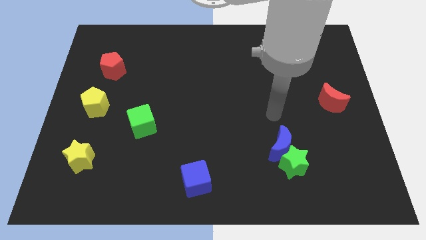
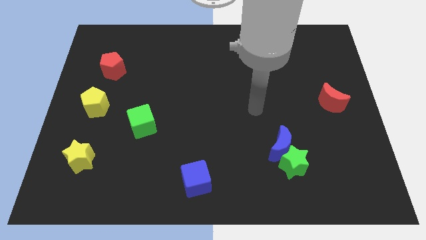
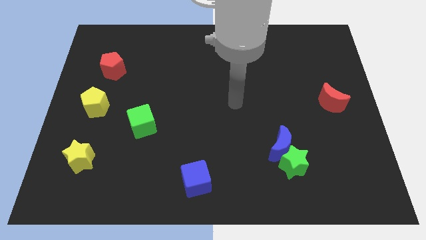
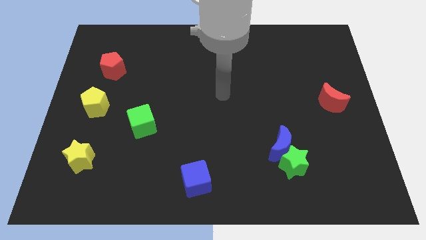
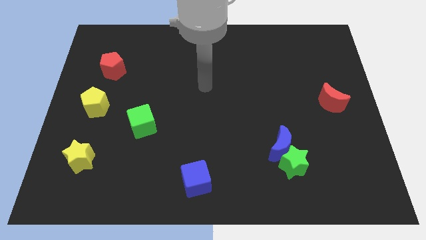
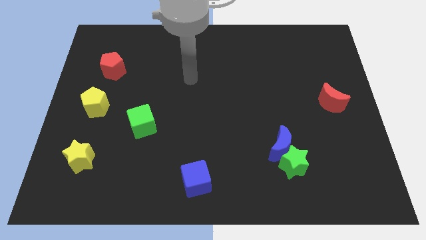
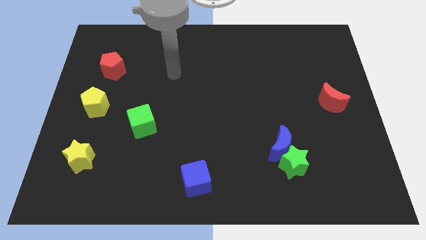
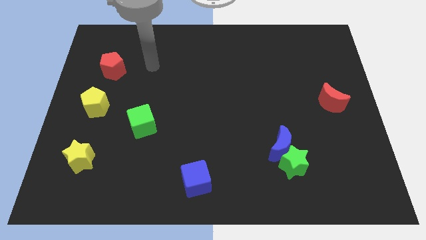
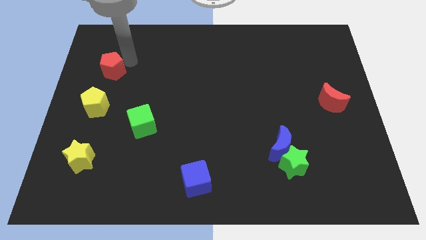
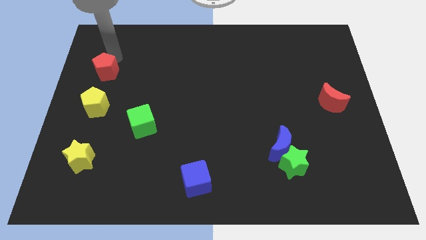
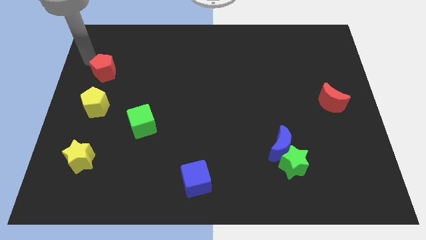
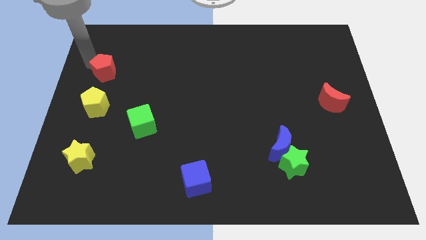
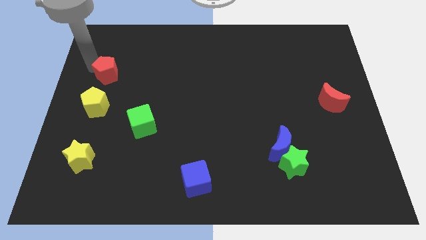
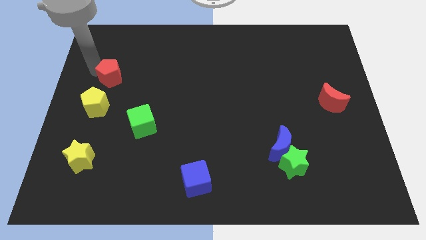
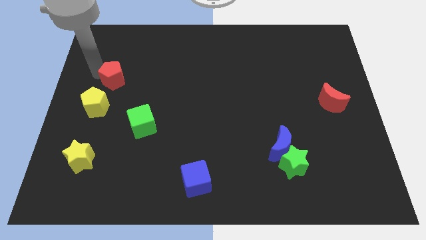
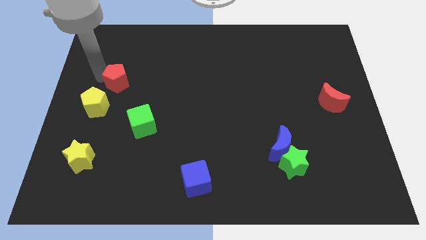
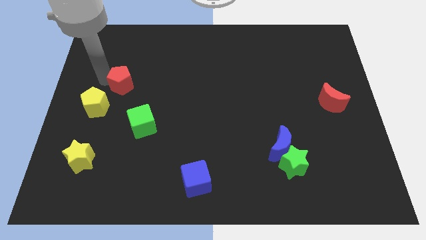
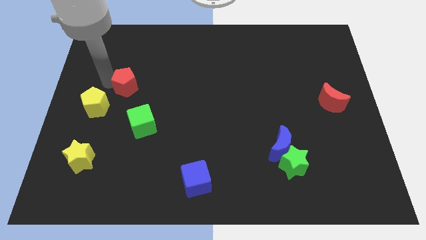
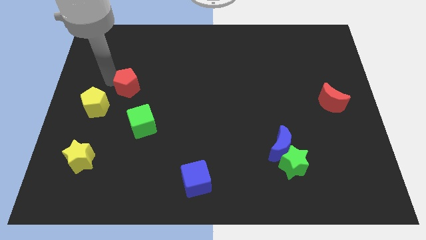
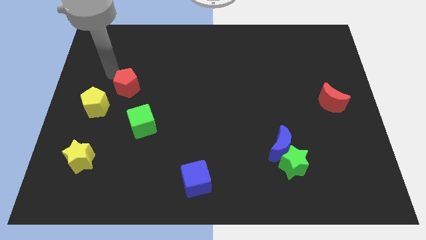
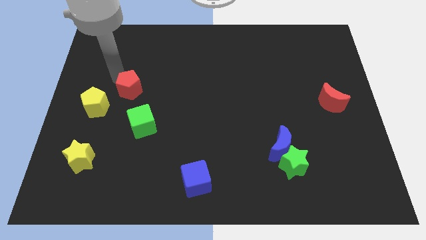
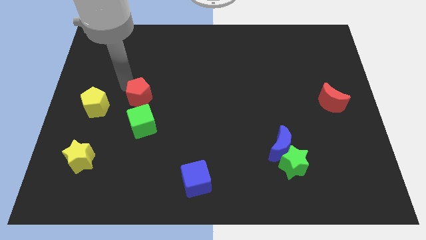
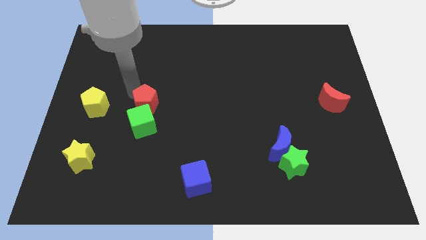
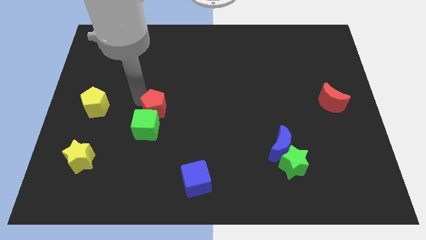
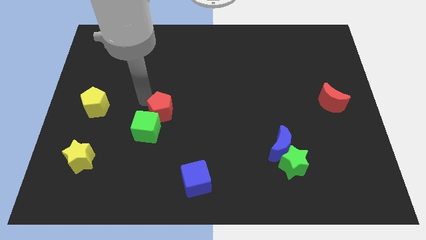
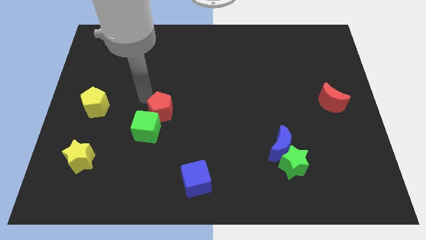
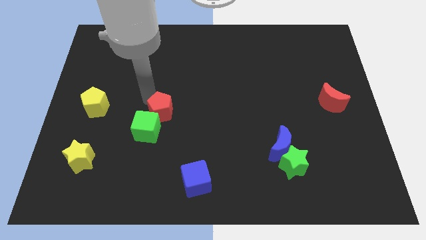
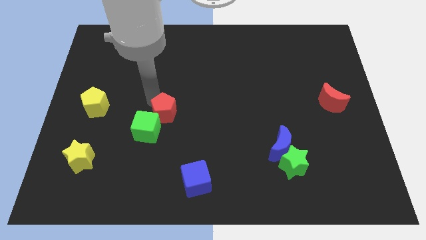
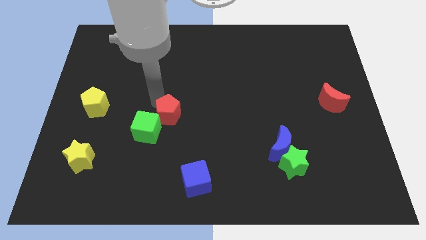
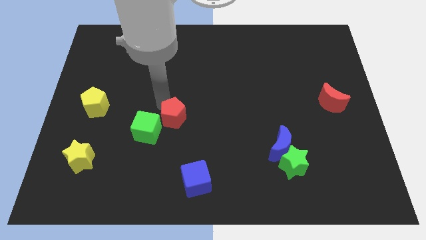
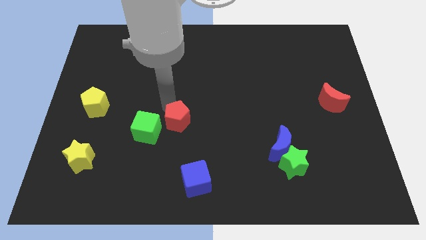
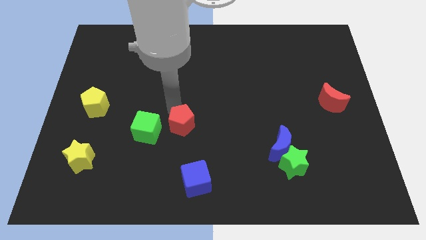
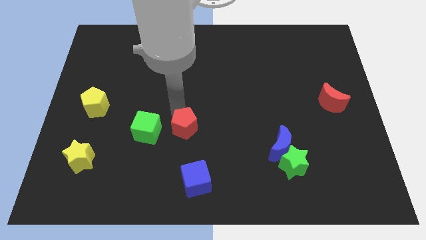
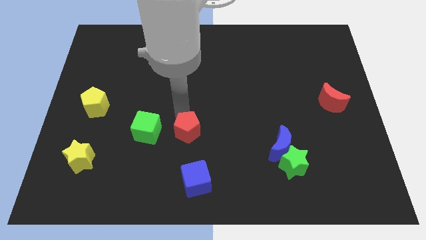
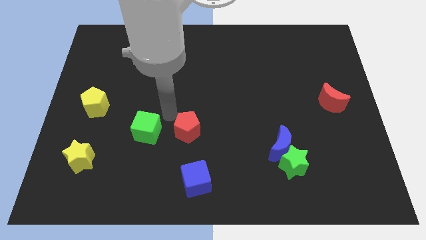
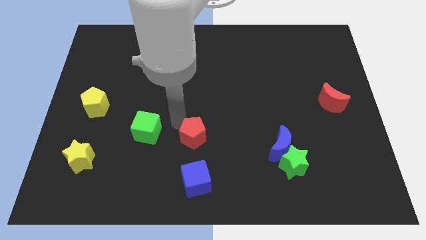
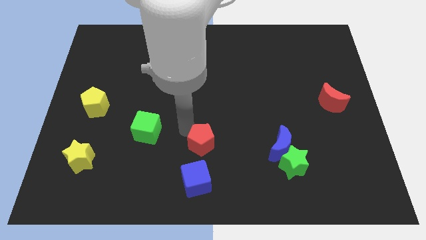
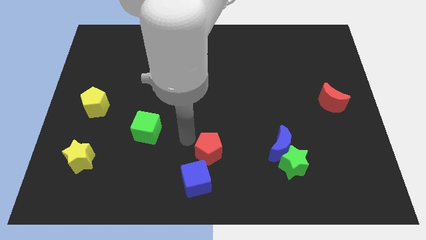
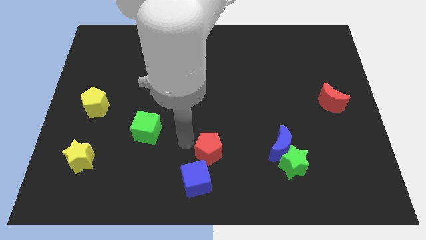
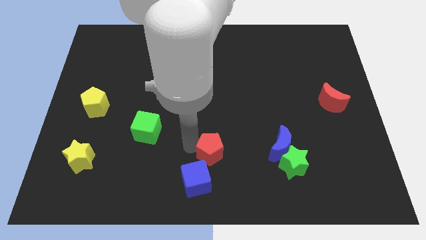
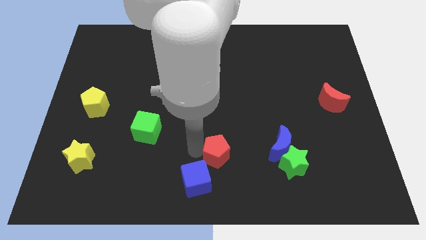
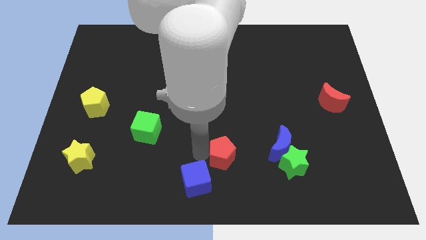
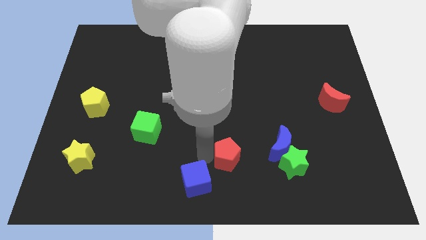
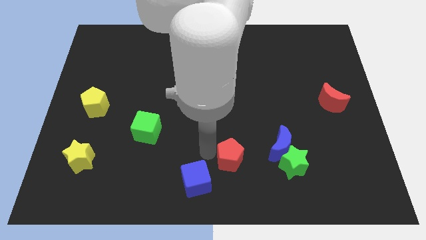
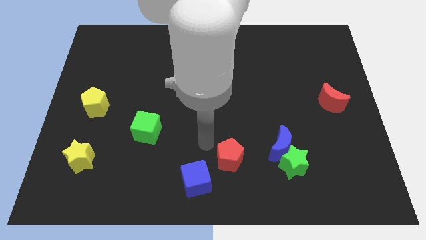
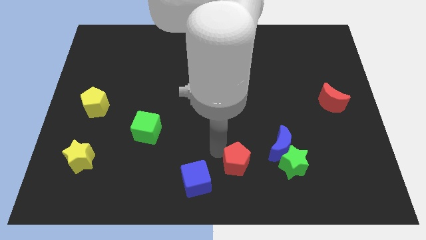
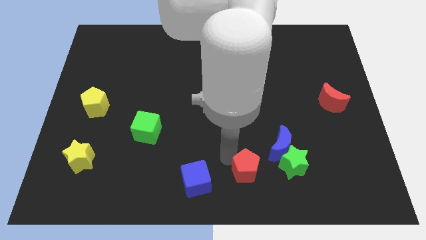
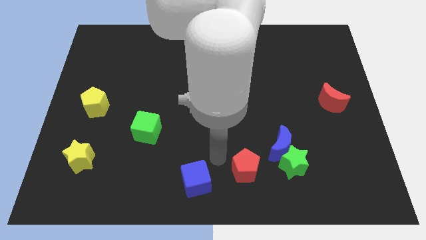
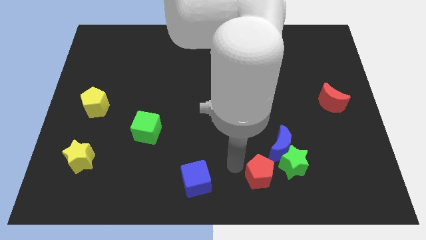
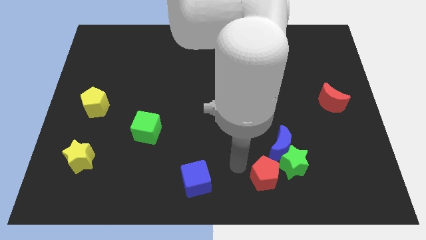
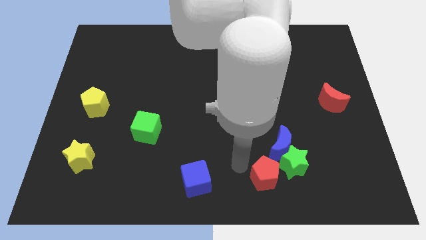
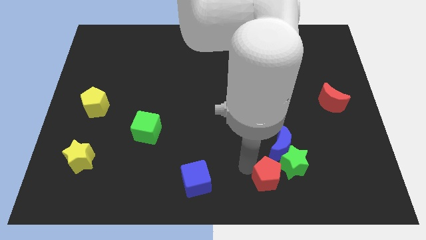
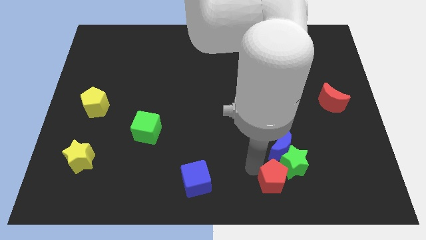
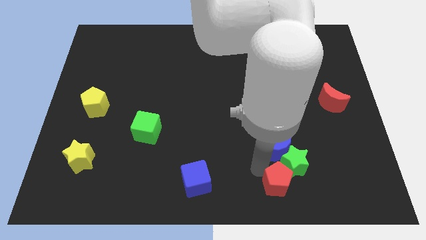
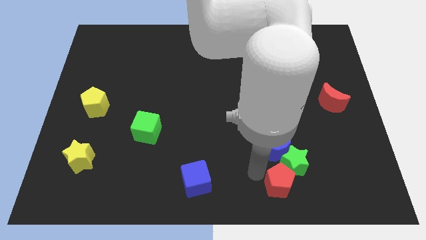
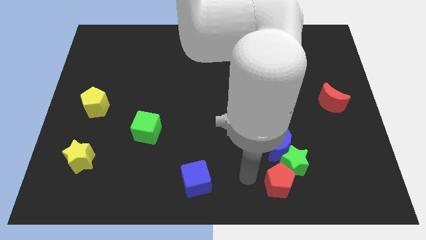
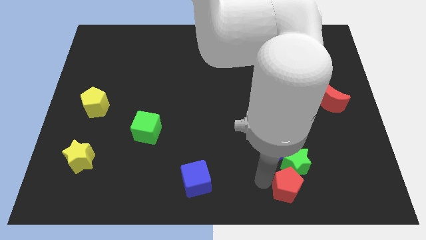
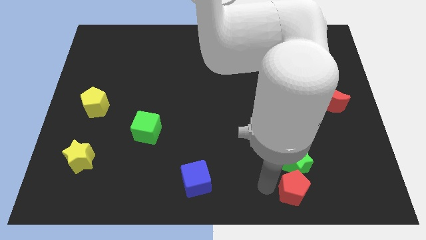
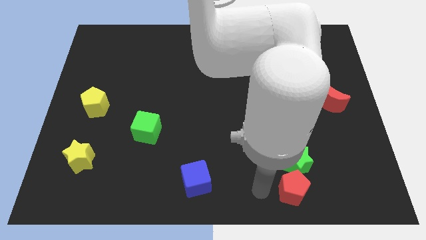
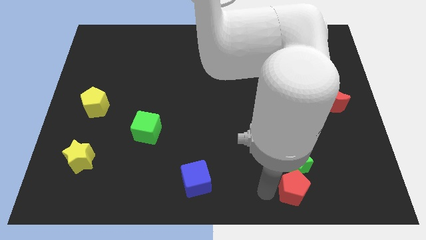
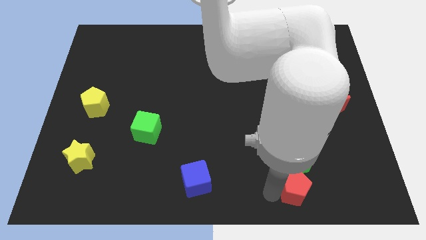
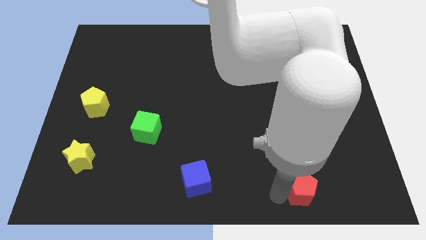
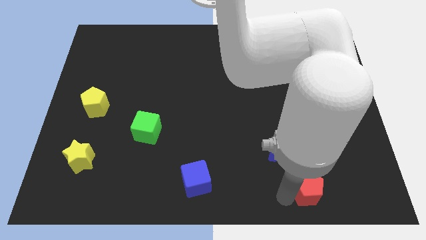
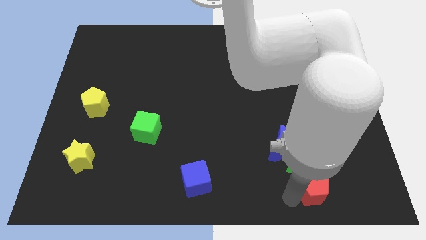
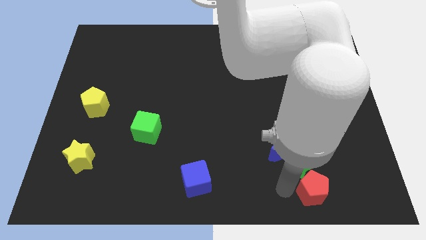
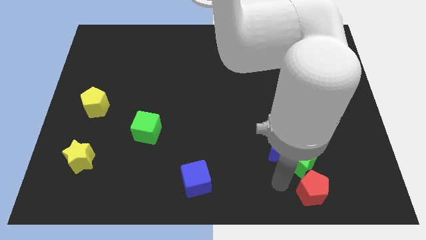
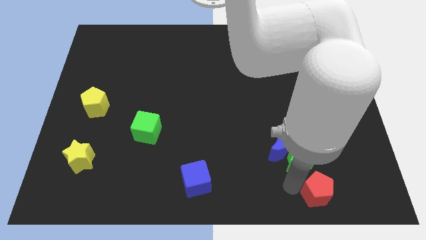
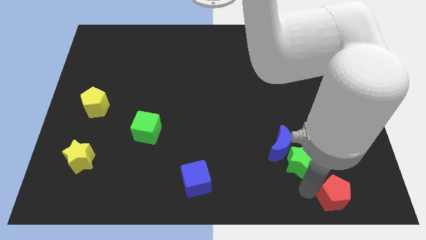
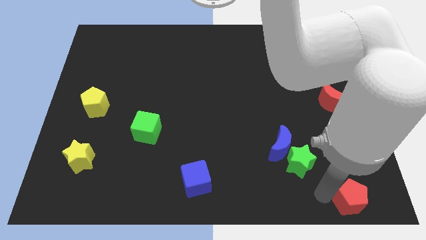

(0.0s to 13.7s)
push the red pentagon to the bottom right
